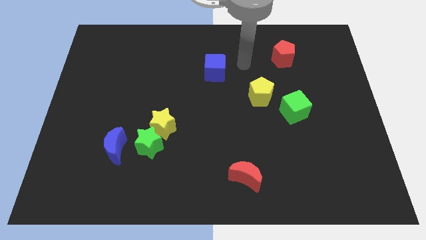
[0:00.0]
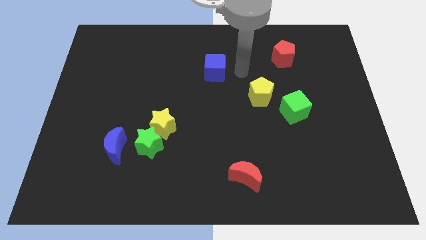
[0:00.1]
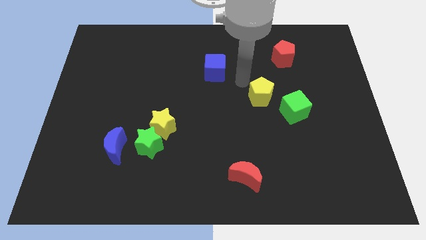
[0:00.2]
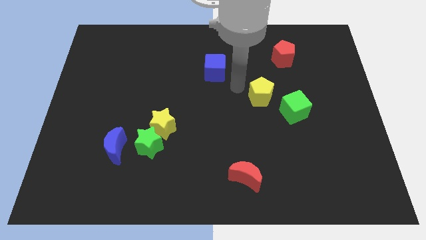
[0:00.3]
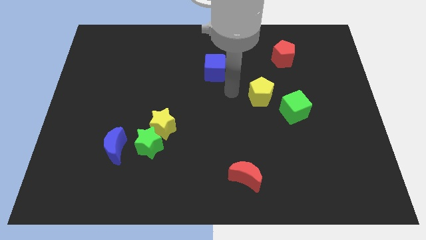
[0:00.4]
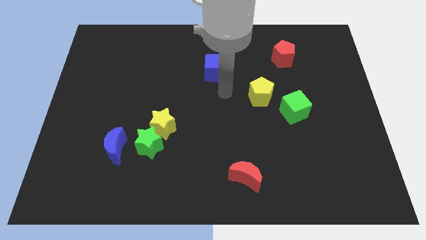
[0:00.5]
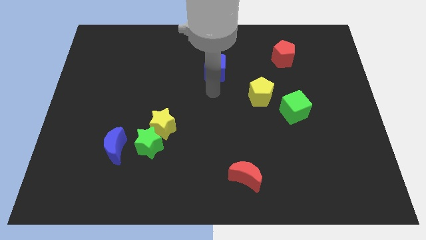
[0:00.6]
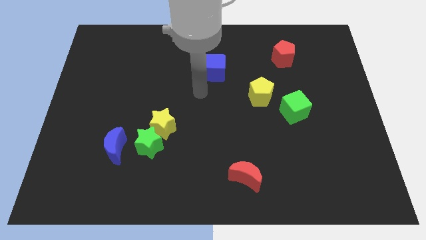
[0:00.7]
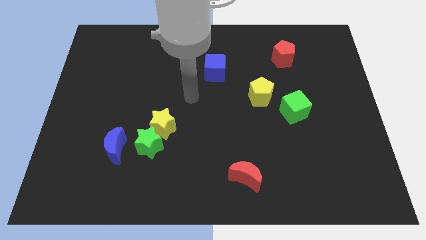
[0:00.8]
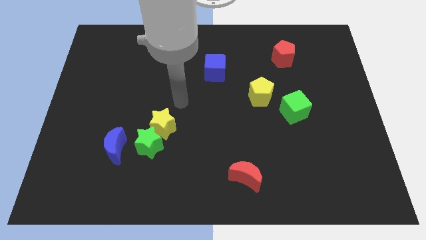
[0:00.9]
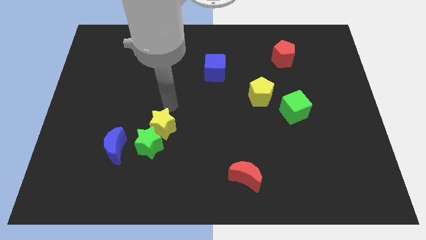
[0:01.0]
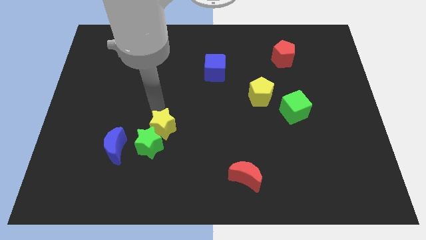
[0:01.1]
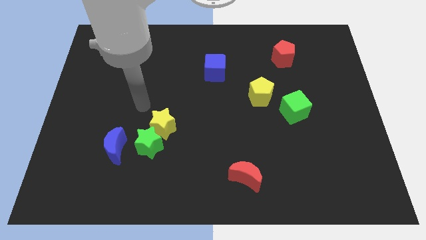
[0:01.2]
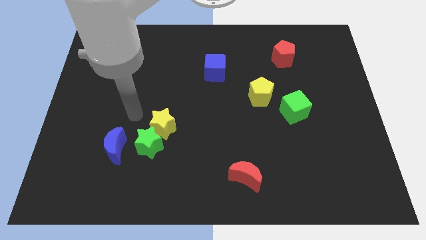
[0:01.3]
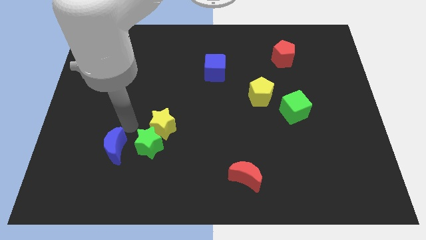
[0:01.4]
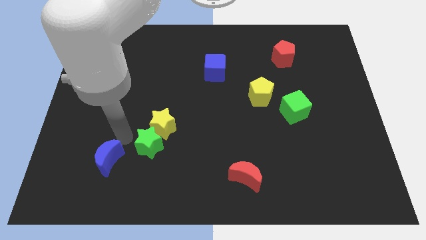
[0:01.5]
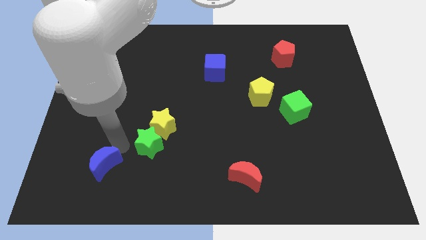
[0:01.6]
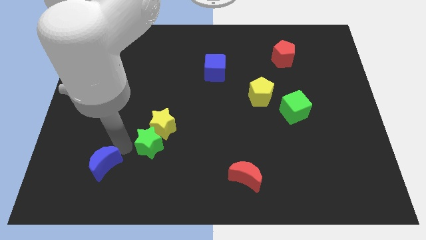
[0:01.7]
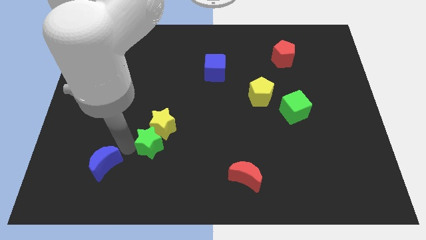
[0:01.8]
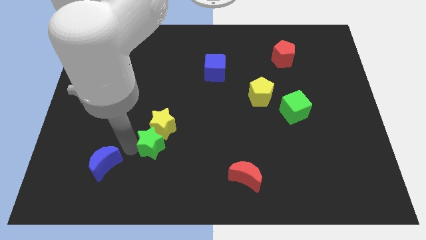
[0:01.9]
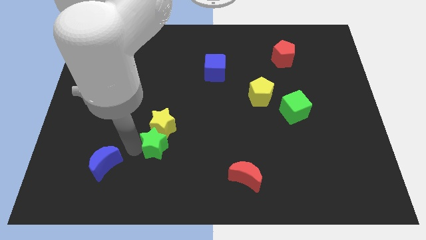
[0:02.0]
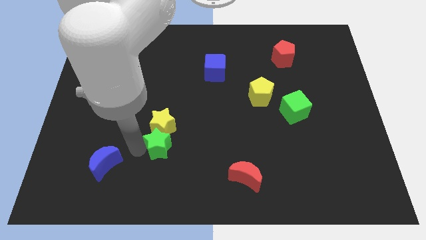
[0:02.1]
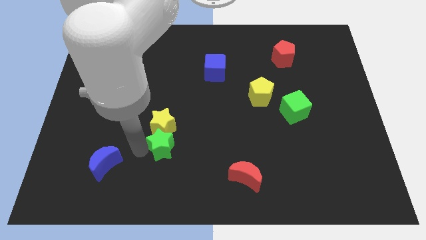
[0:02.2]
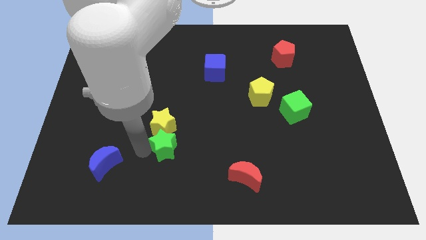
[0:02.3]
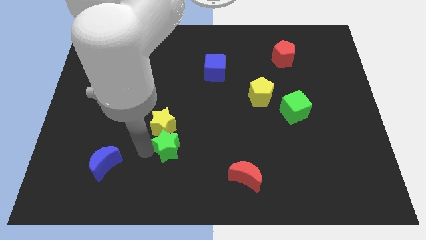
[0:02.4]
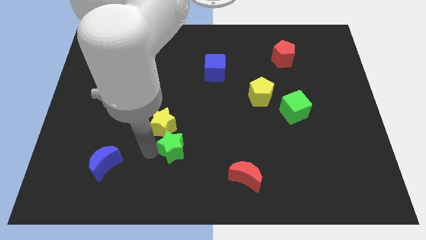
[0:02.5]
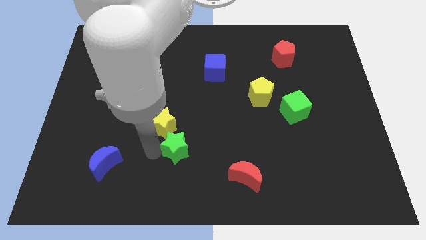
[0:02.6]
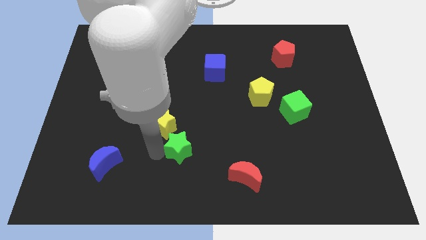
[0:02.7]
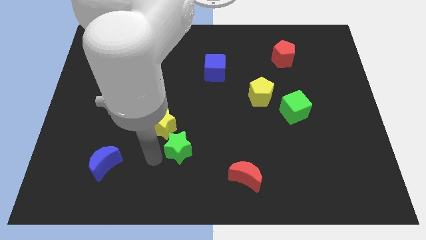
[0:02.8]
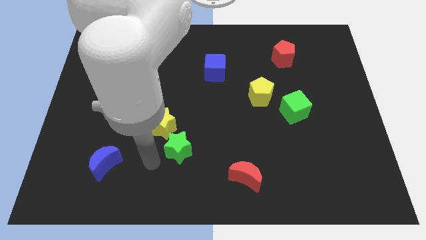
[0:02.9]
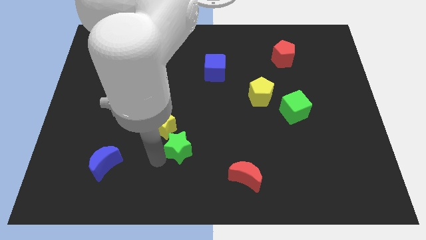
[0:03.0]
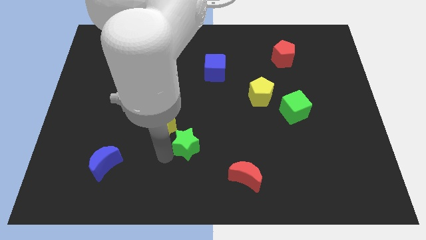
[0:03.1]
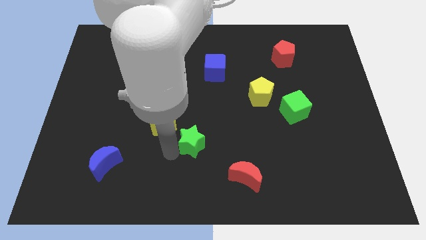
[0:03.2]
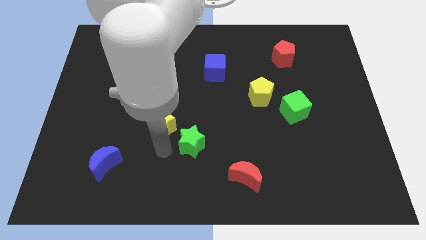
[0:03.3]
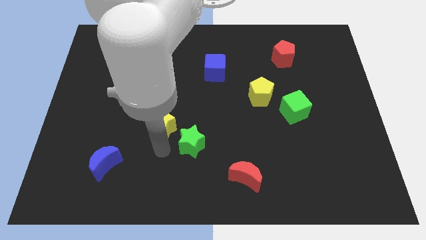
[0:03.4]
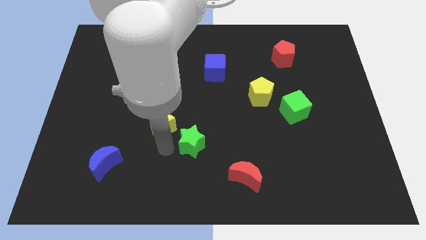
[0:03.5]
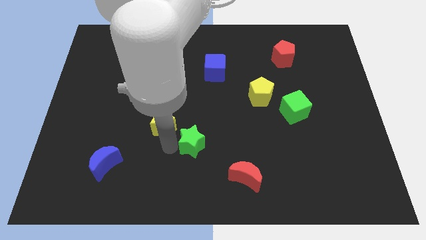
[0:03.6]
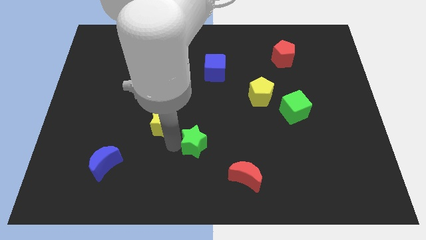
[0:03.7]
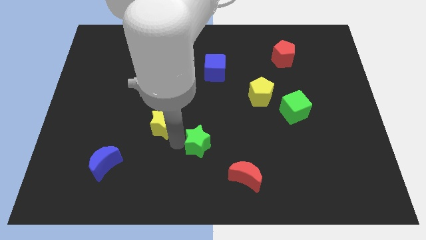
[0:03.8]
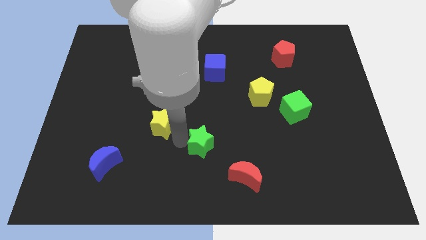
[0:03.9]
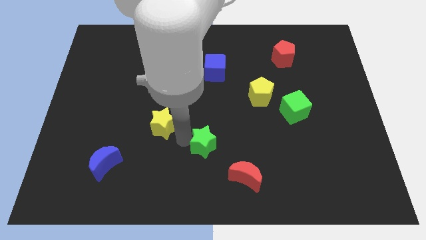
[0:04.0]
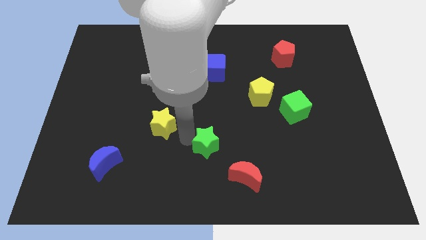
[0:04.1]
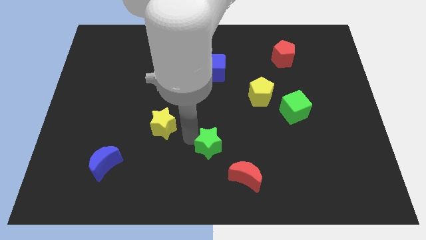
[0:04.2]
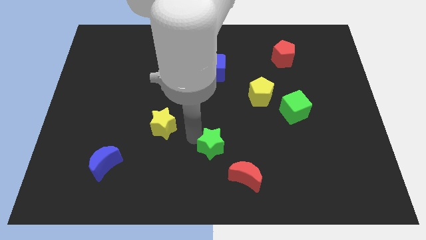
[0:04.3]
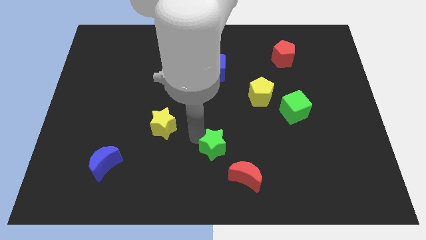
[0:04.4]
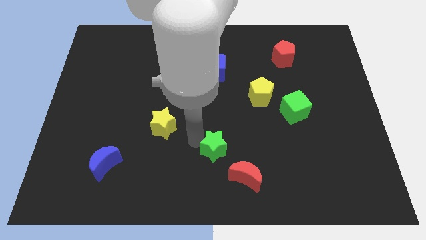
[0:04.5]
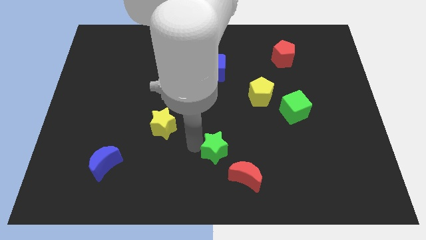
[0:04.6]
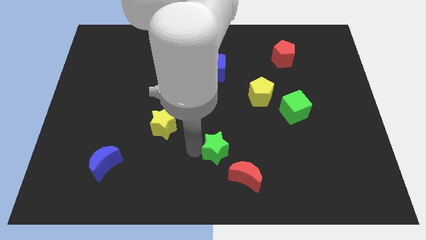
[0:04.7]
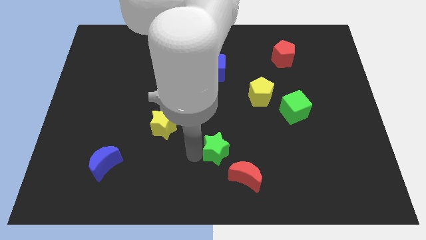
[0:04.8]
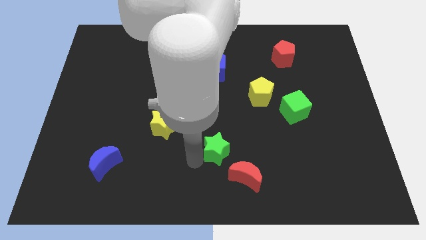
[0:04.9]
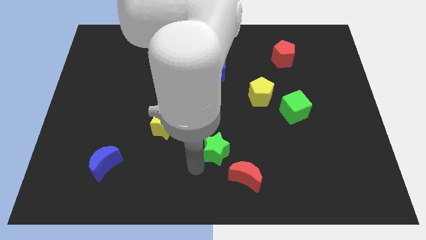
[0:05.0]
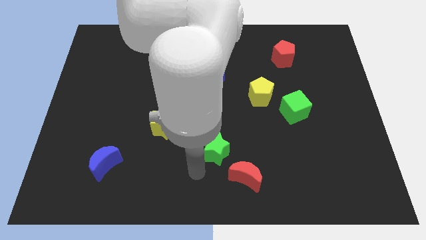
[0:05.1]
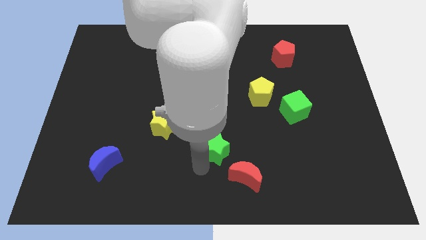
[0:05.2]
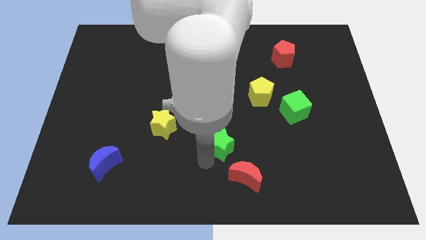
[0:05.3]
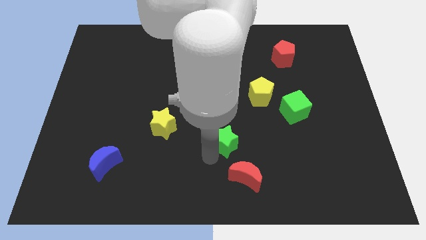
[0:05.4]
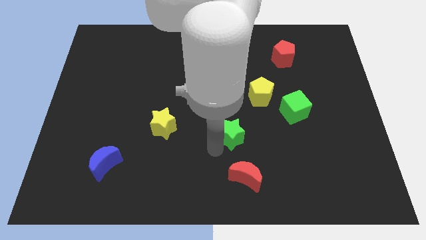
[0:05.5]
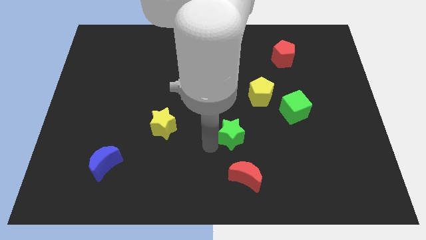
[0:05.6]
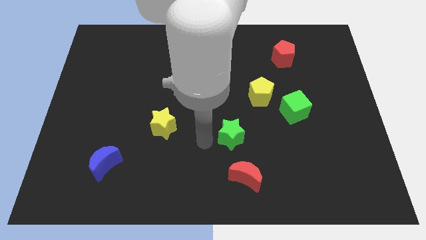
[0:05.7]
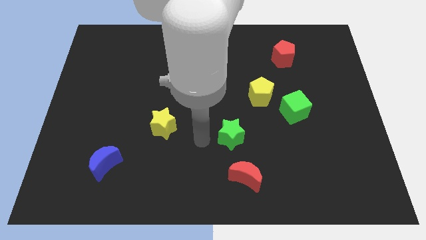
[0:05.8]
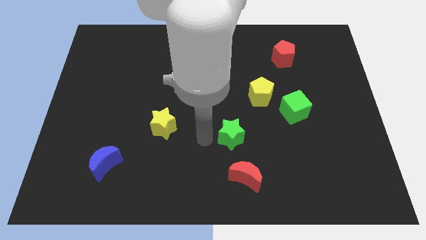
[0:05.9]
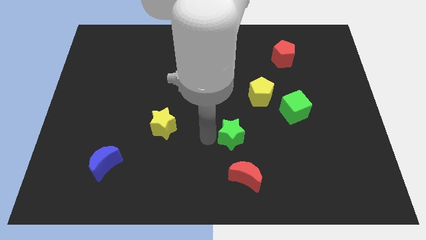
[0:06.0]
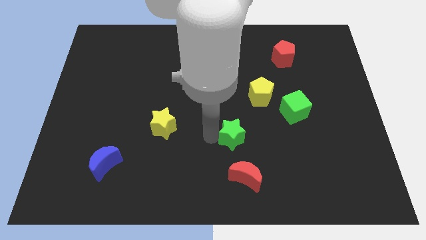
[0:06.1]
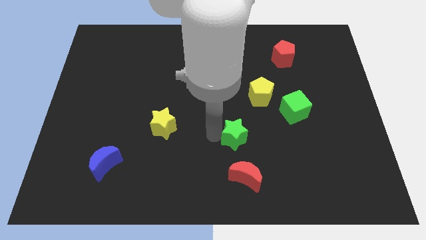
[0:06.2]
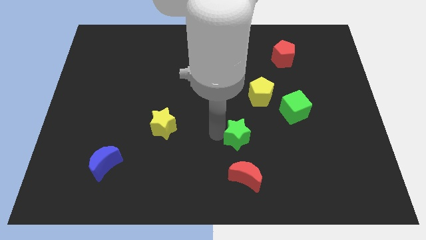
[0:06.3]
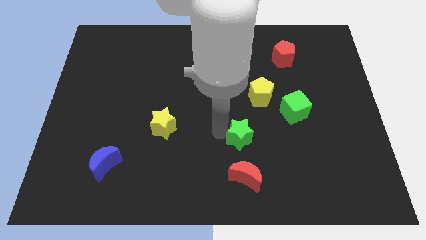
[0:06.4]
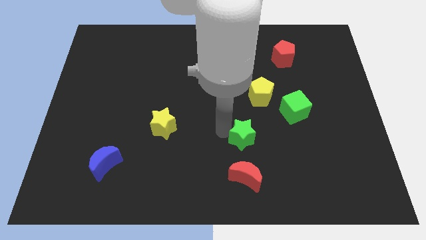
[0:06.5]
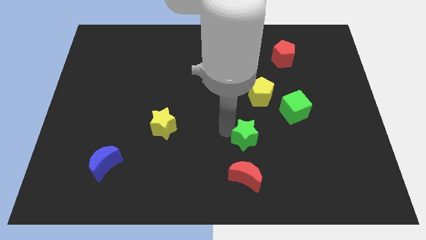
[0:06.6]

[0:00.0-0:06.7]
push the green star to the bottom of the yellow pentagon
